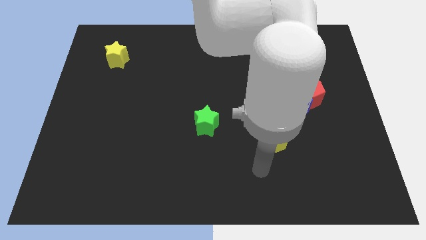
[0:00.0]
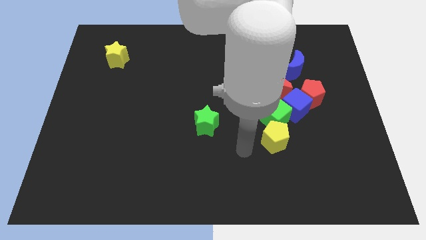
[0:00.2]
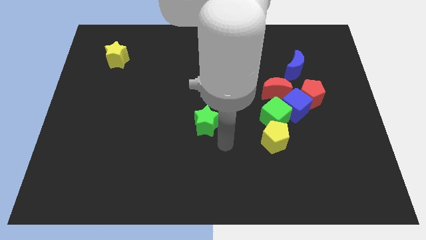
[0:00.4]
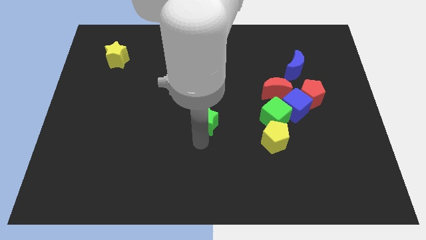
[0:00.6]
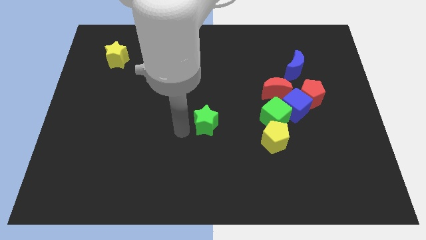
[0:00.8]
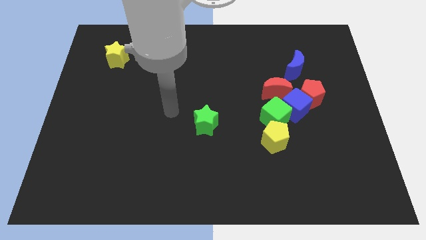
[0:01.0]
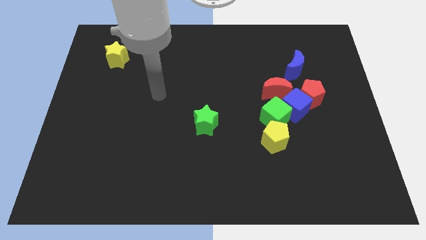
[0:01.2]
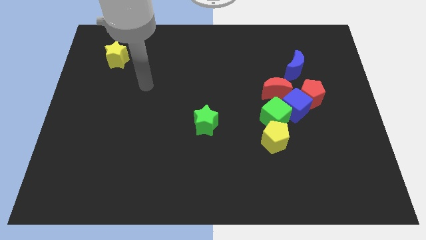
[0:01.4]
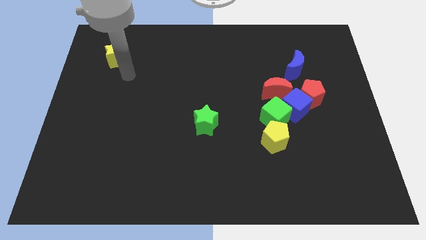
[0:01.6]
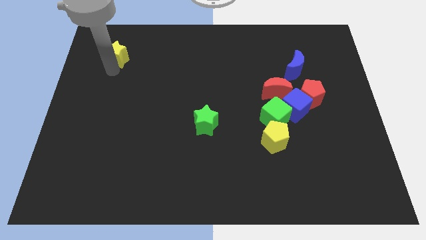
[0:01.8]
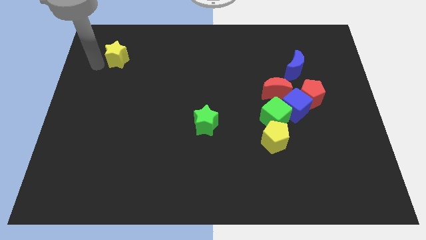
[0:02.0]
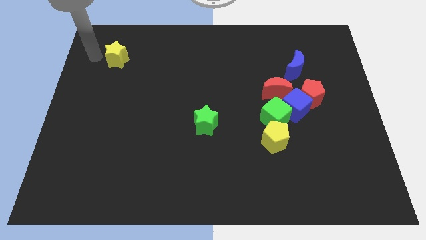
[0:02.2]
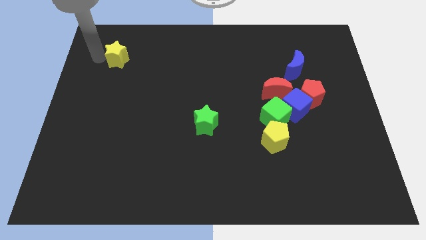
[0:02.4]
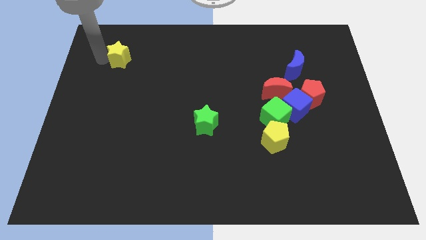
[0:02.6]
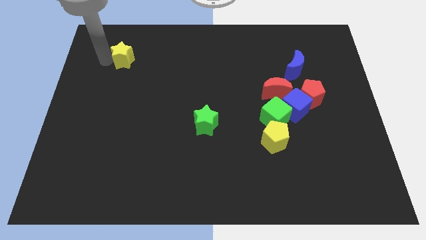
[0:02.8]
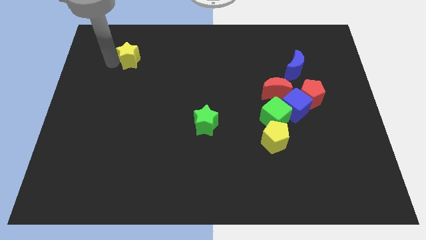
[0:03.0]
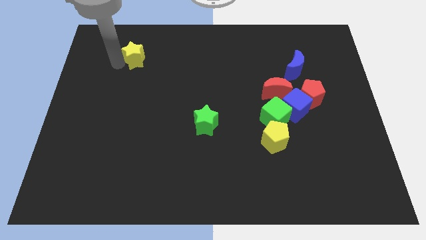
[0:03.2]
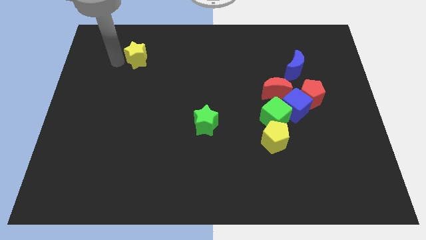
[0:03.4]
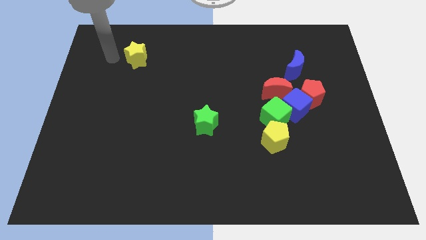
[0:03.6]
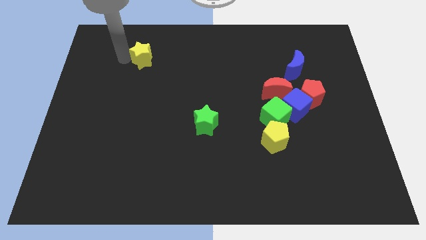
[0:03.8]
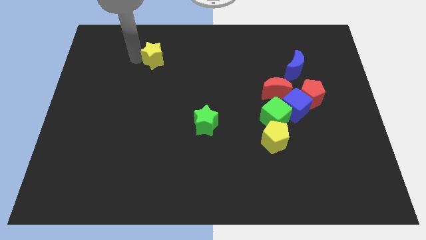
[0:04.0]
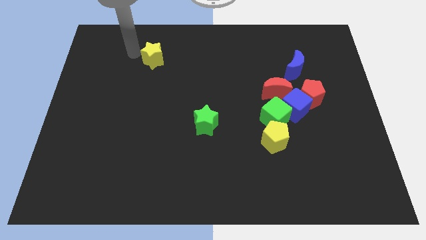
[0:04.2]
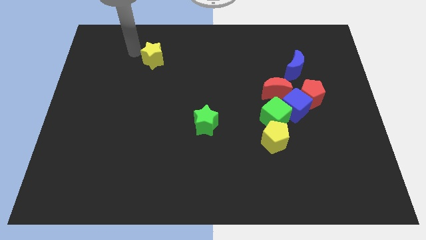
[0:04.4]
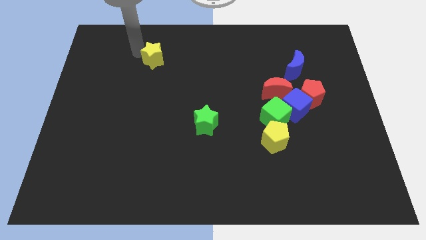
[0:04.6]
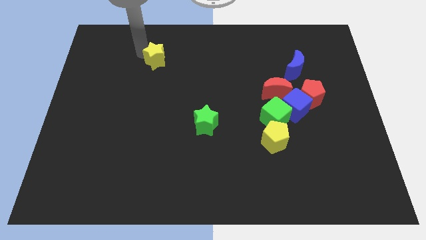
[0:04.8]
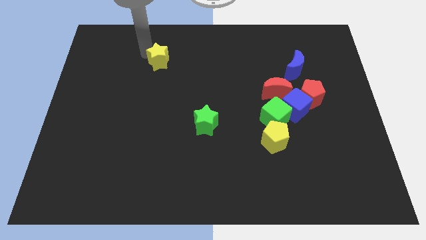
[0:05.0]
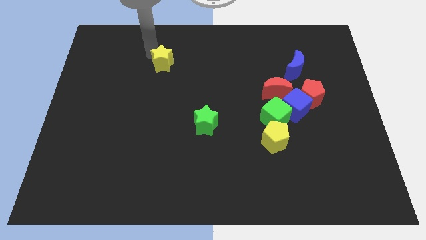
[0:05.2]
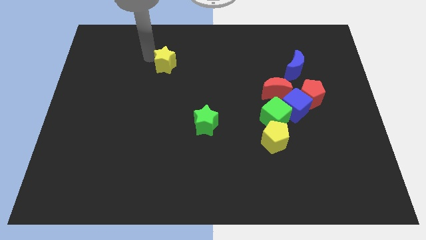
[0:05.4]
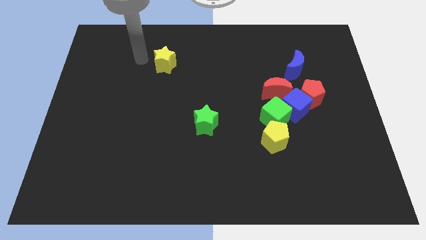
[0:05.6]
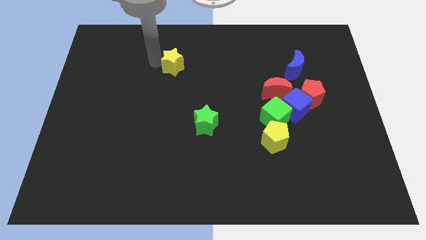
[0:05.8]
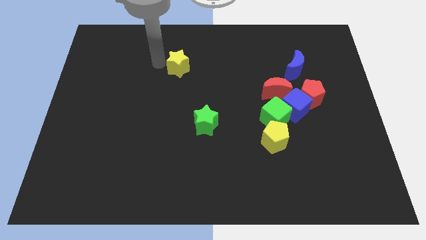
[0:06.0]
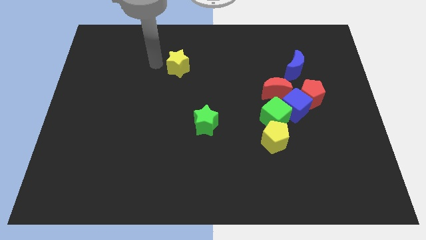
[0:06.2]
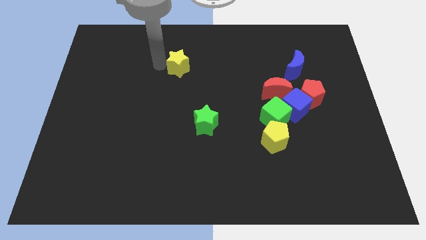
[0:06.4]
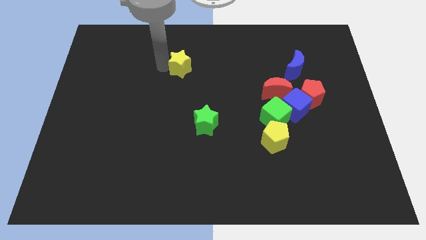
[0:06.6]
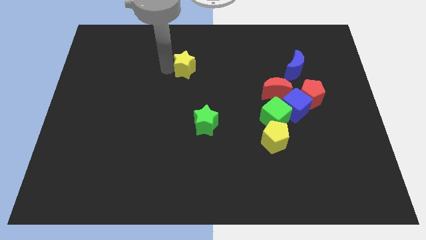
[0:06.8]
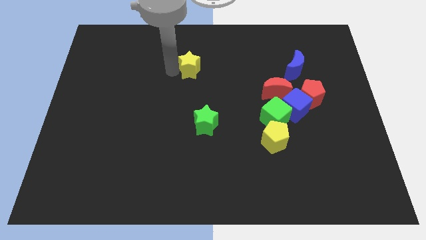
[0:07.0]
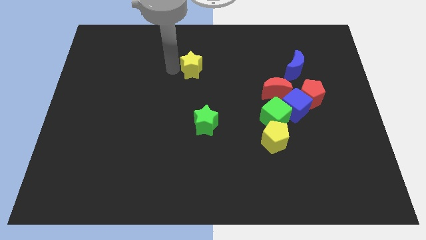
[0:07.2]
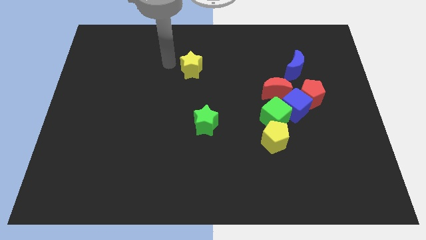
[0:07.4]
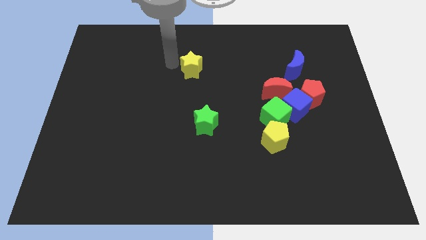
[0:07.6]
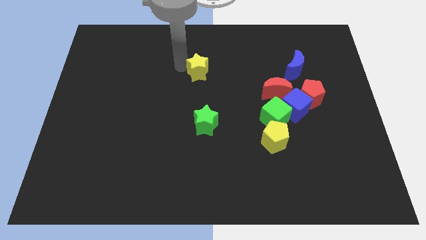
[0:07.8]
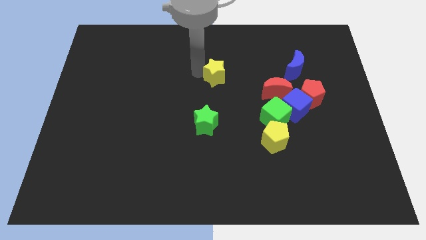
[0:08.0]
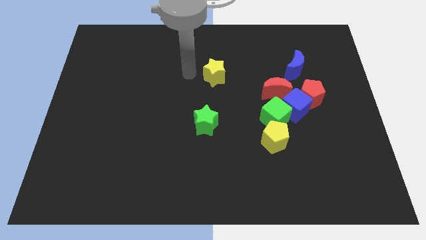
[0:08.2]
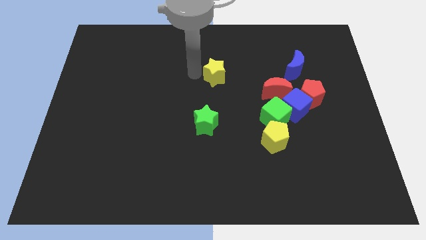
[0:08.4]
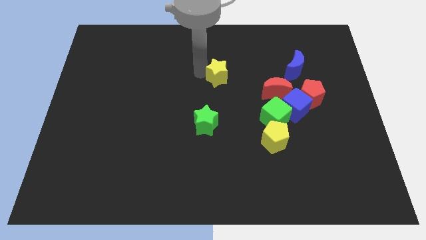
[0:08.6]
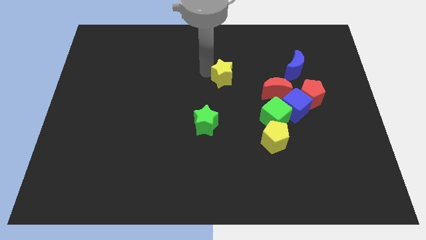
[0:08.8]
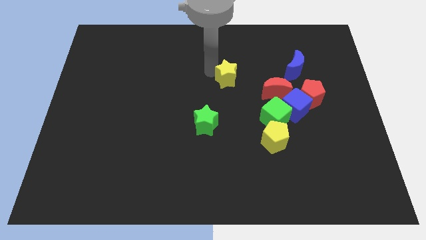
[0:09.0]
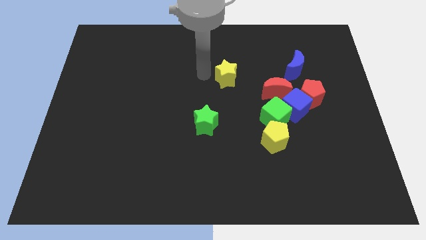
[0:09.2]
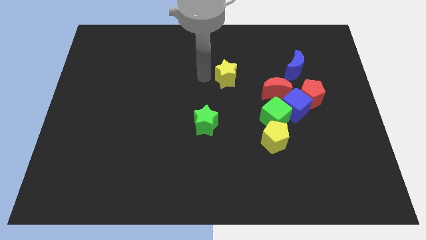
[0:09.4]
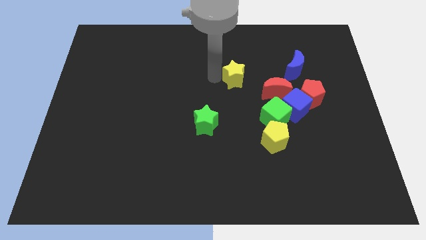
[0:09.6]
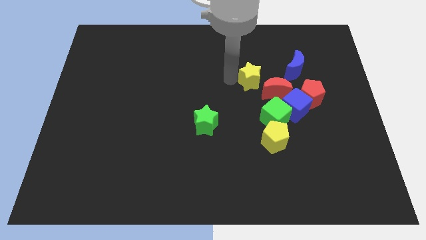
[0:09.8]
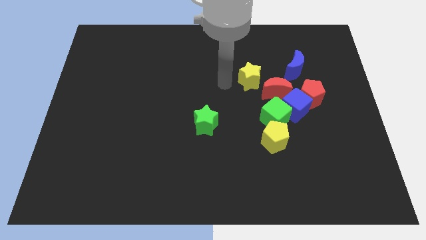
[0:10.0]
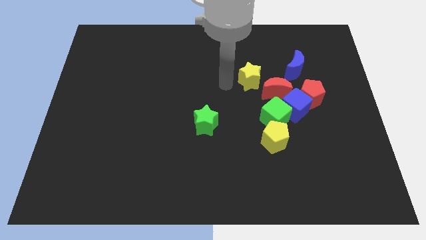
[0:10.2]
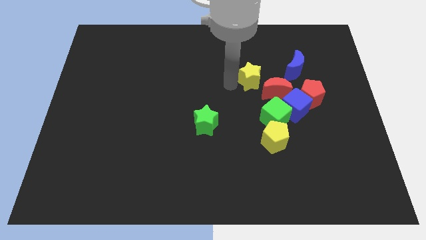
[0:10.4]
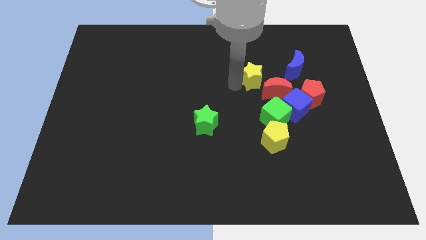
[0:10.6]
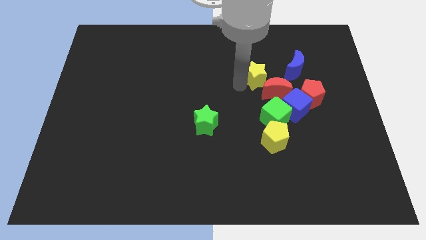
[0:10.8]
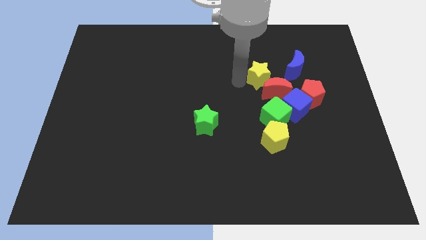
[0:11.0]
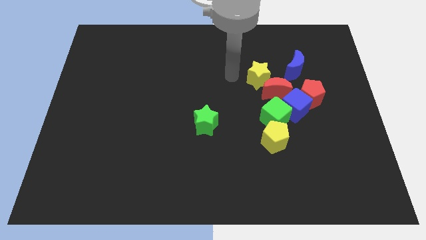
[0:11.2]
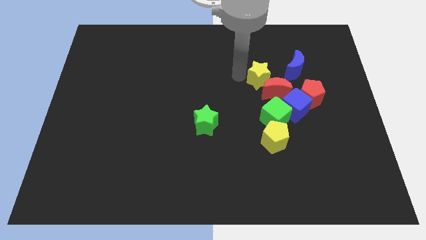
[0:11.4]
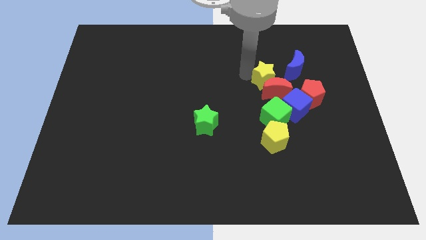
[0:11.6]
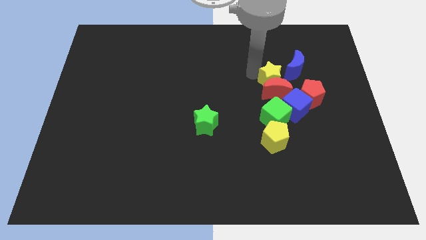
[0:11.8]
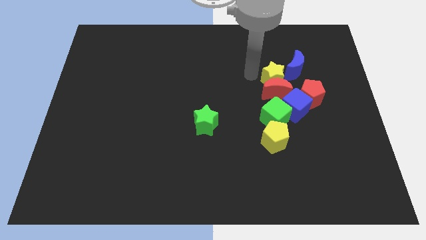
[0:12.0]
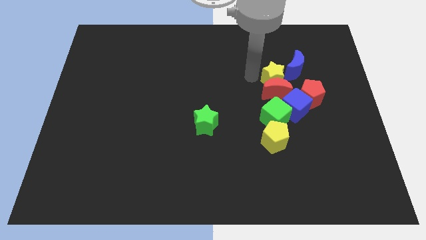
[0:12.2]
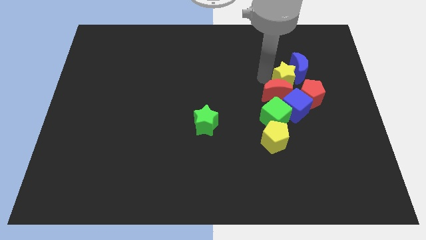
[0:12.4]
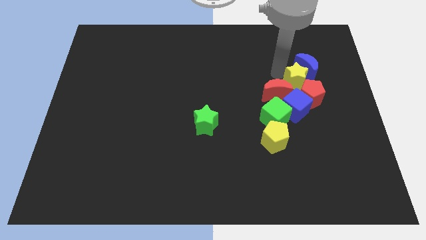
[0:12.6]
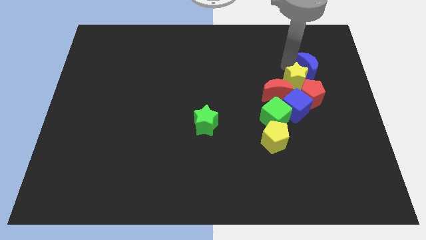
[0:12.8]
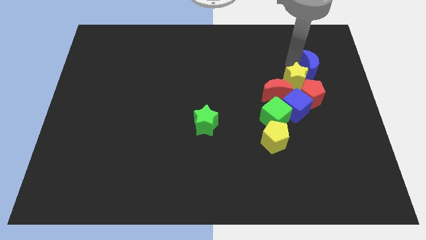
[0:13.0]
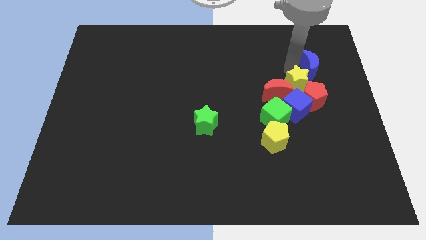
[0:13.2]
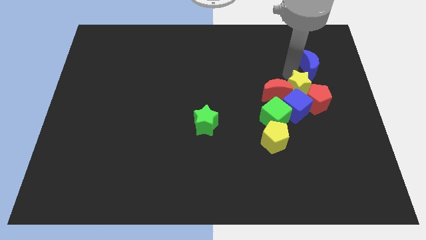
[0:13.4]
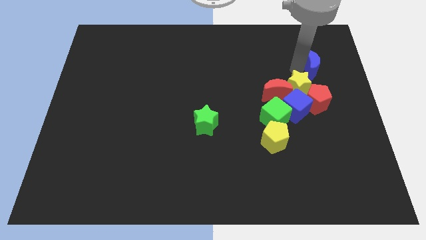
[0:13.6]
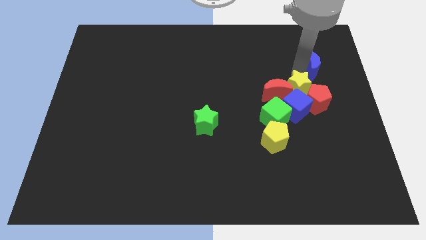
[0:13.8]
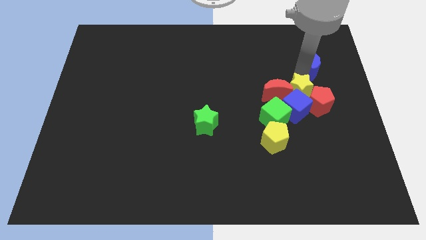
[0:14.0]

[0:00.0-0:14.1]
push the yellow star close to the blue cube
